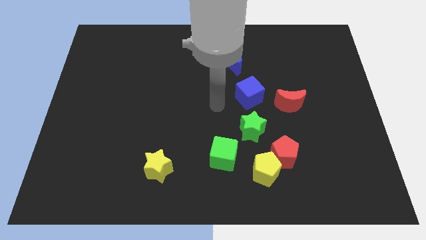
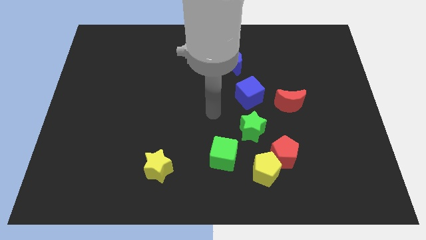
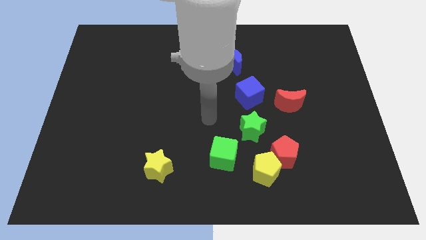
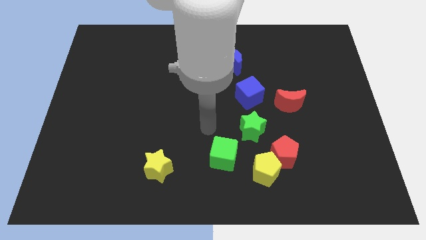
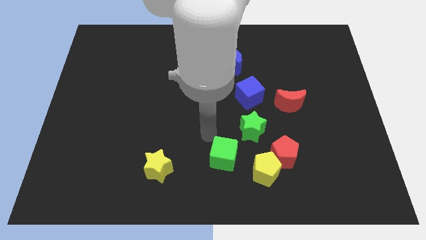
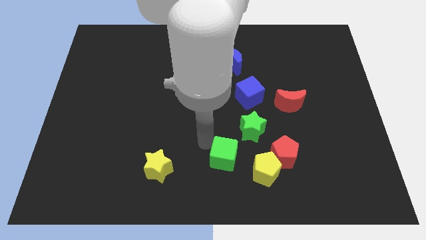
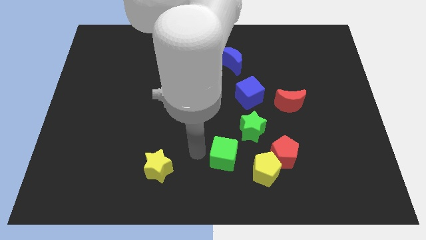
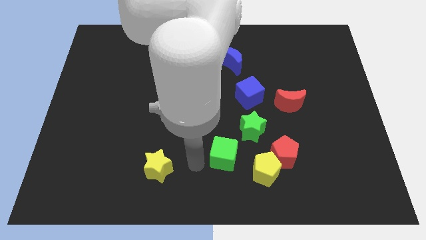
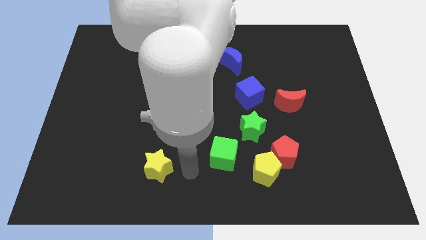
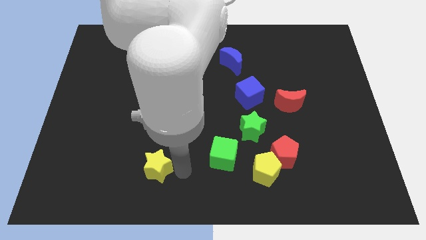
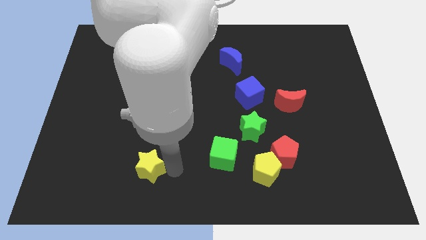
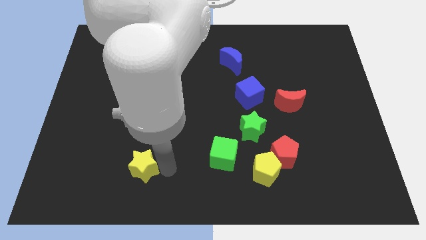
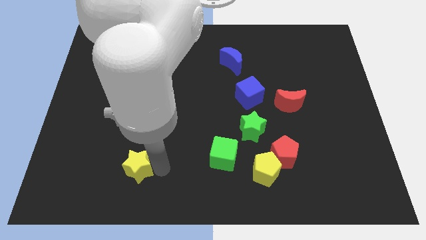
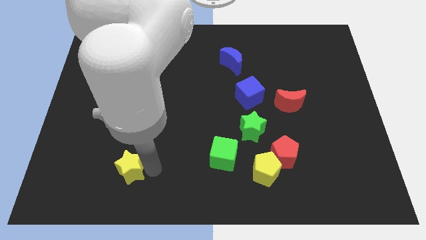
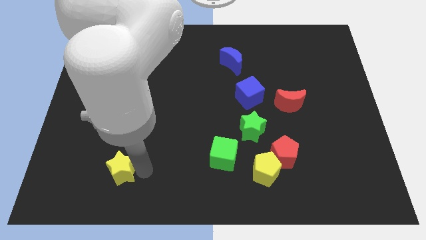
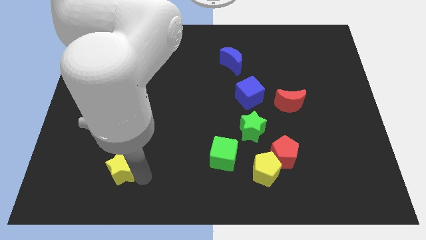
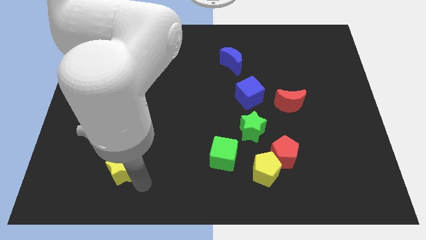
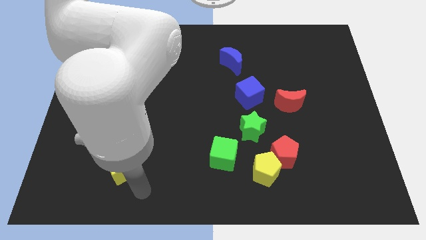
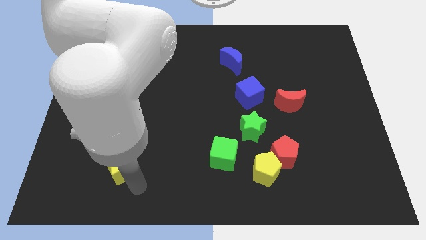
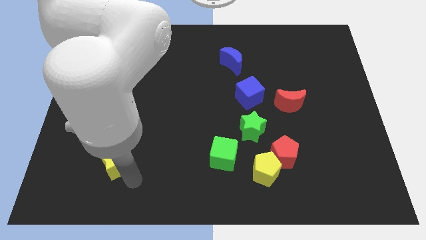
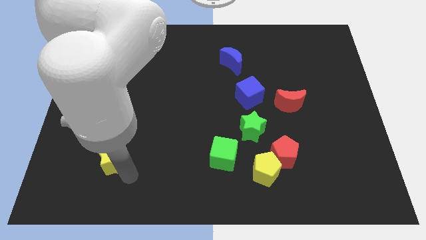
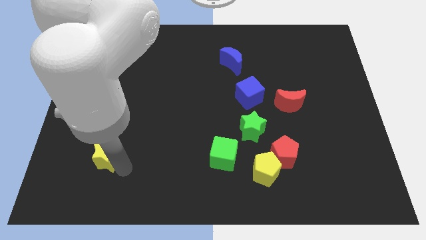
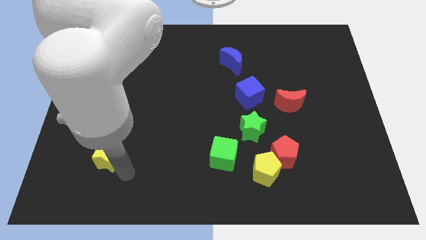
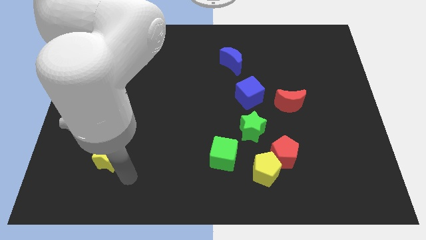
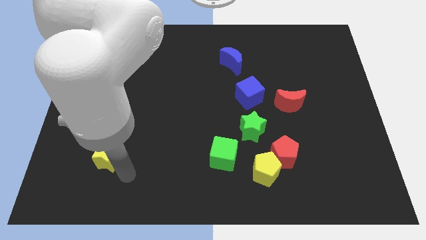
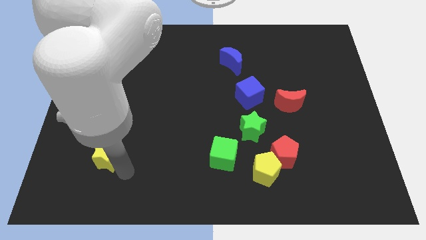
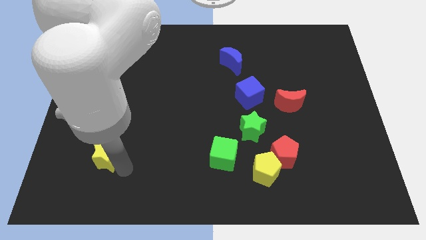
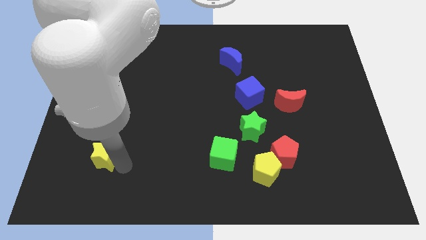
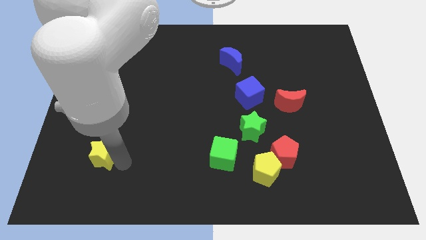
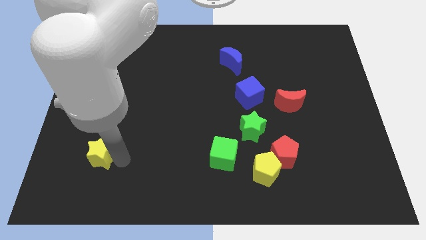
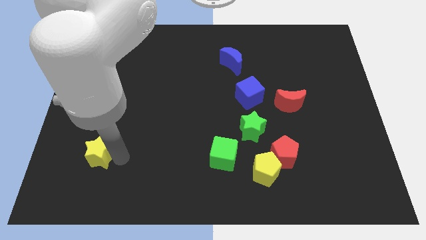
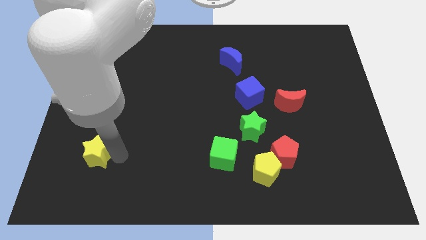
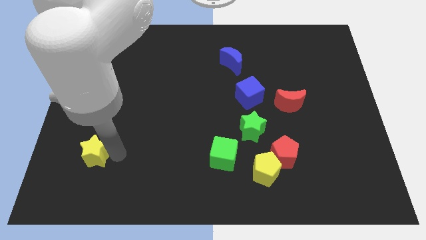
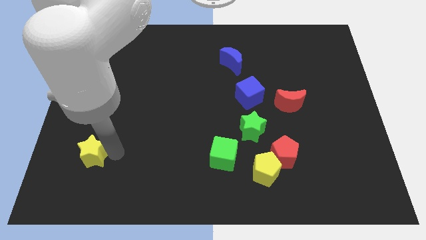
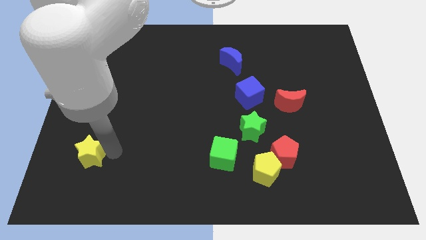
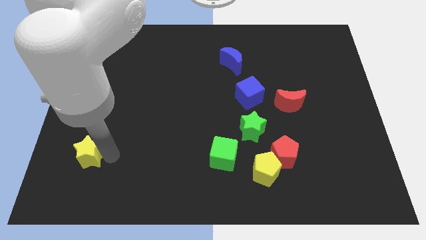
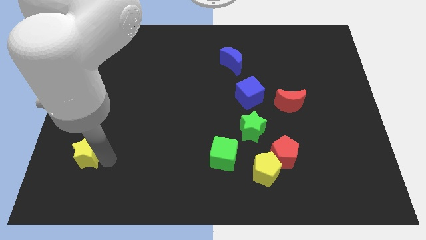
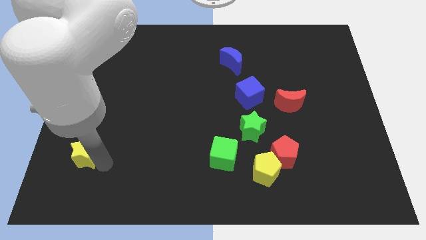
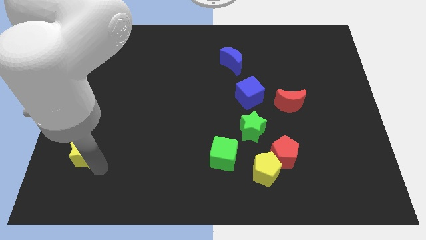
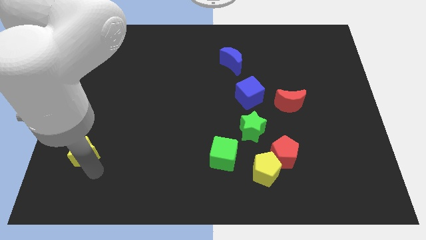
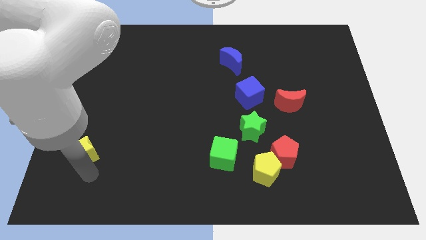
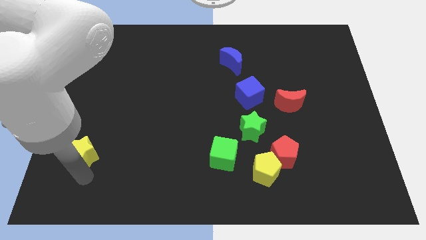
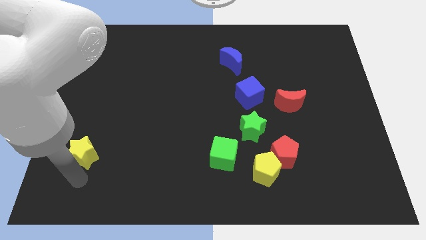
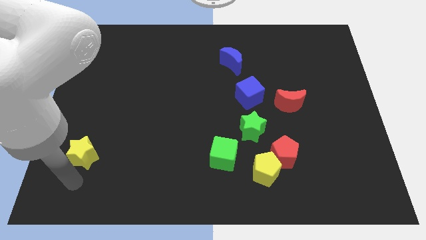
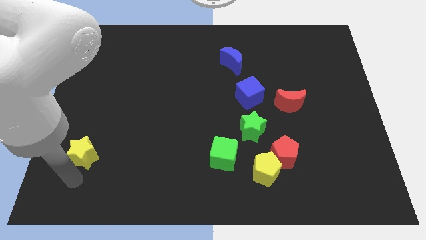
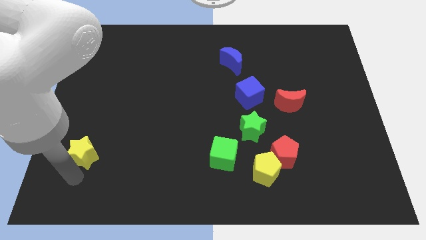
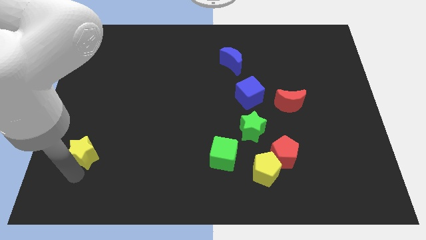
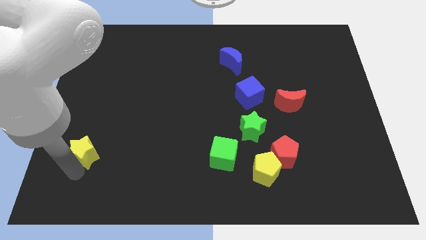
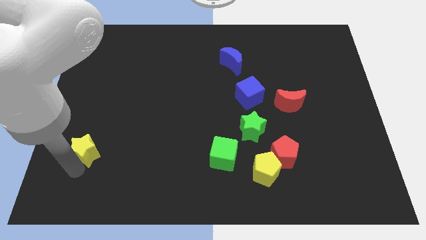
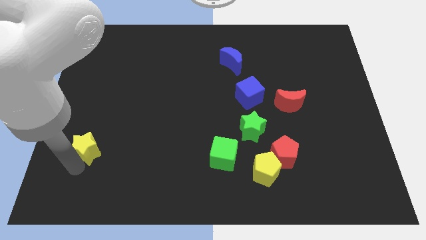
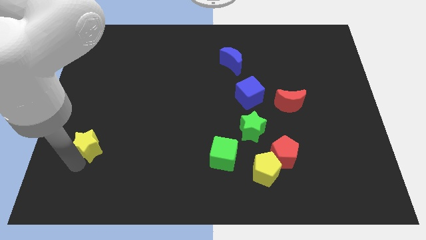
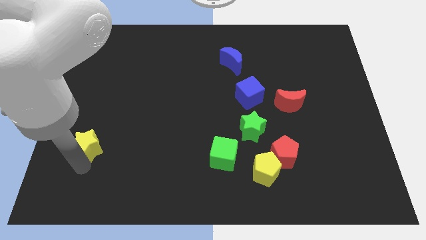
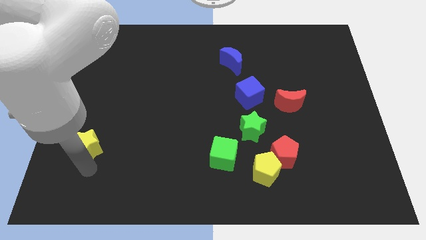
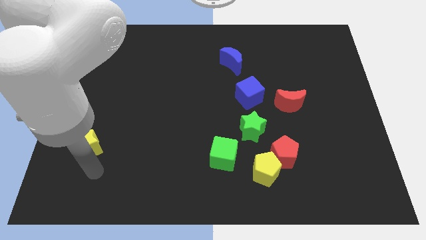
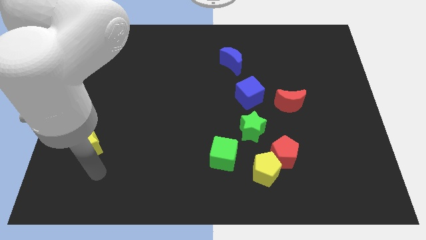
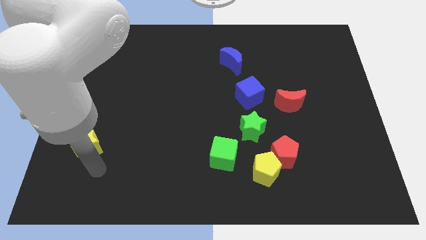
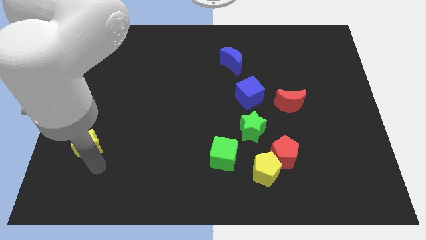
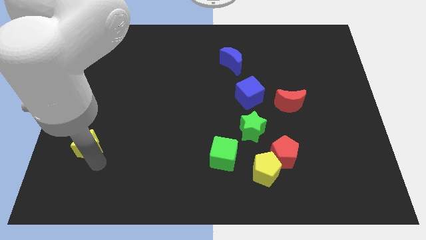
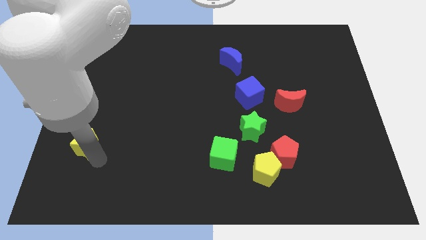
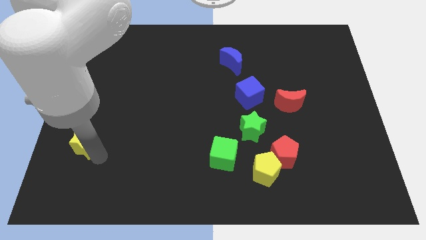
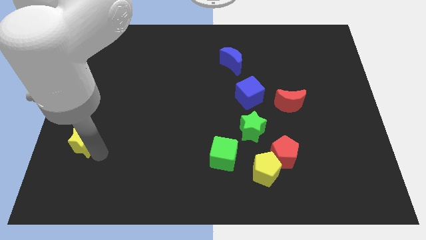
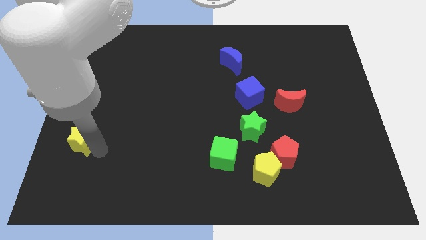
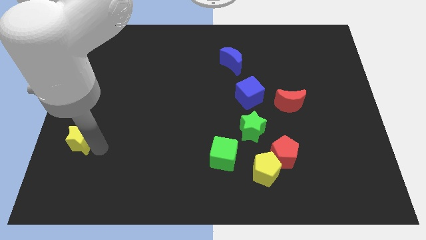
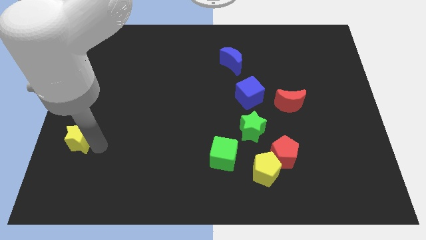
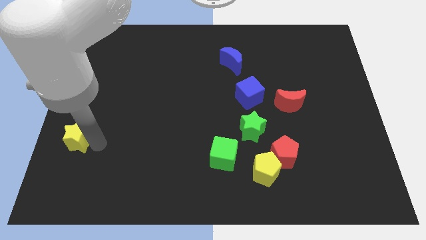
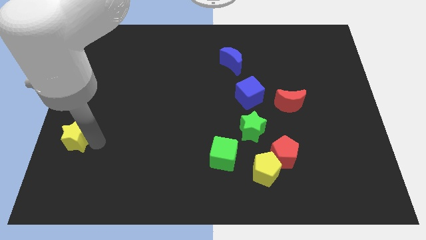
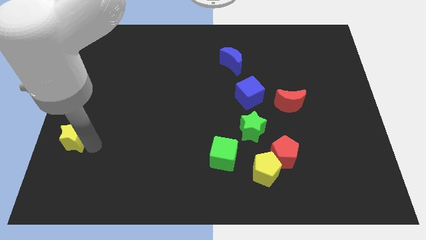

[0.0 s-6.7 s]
slide the yellow star to the left side of the board

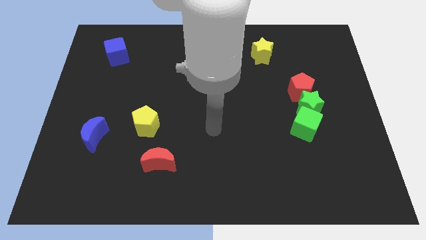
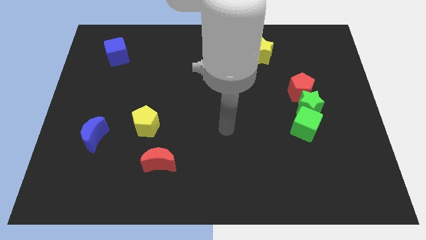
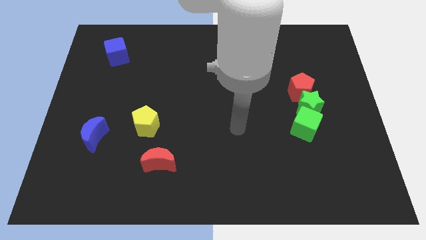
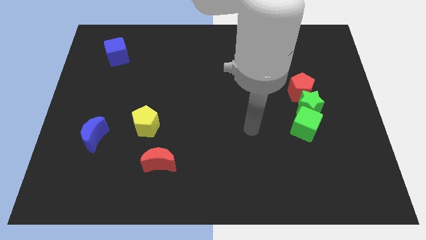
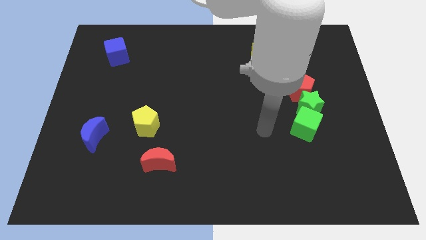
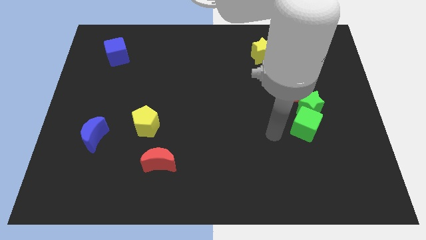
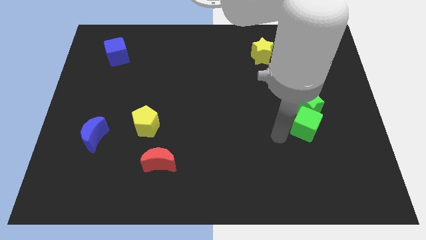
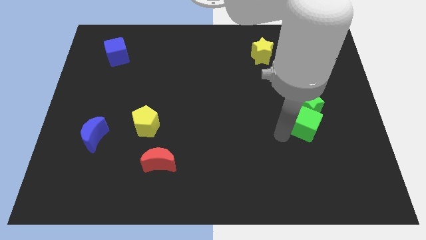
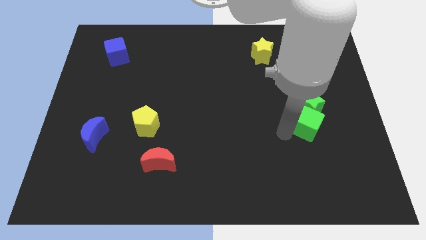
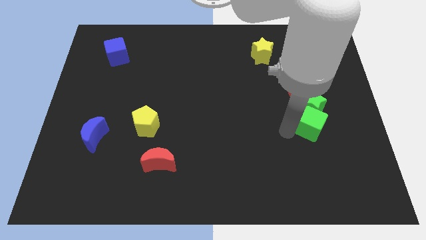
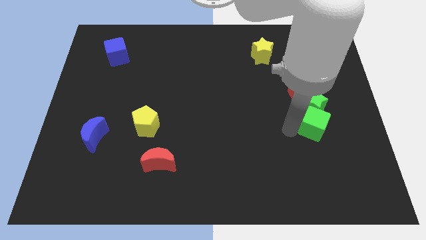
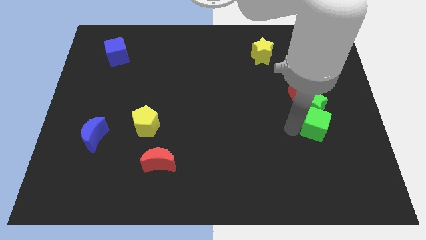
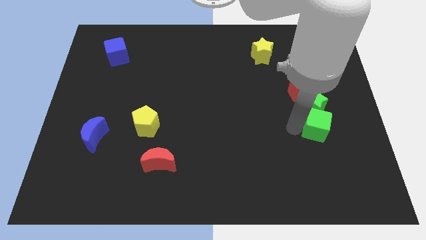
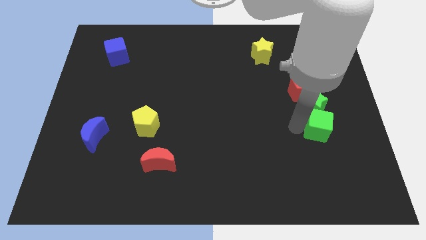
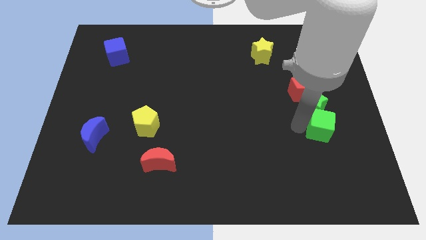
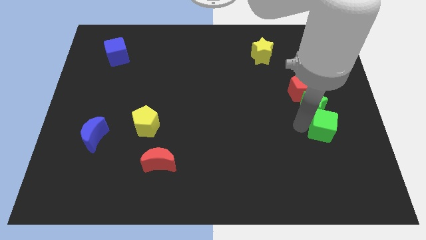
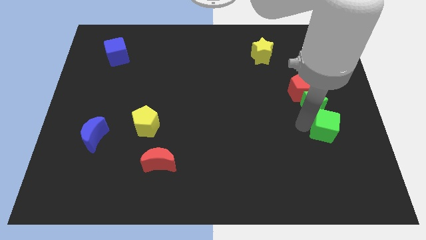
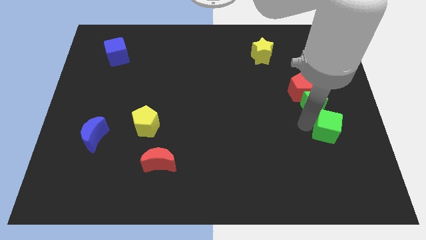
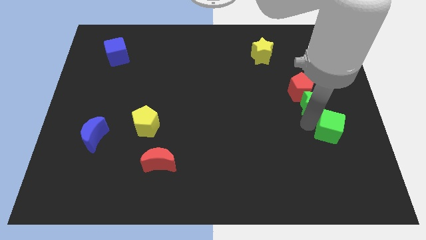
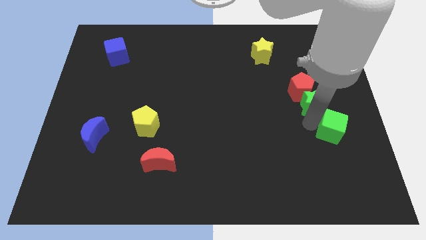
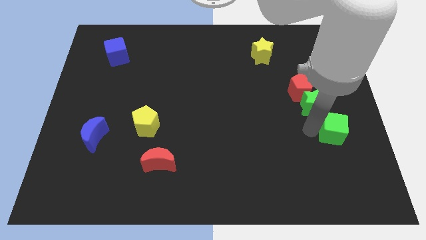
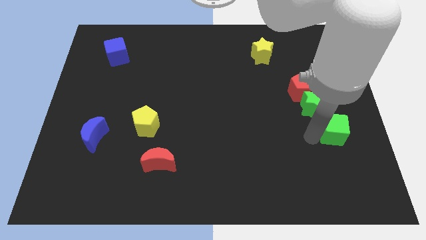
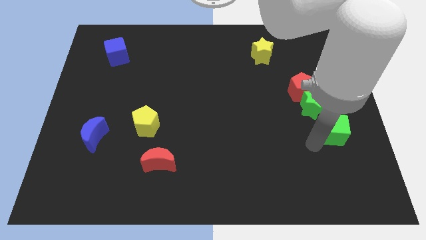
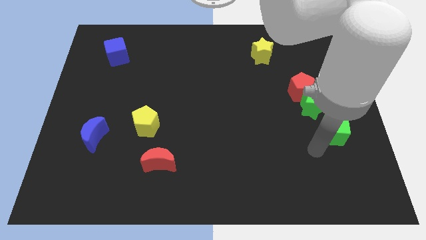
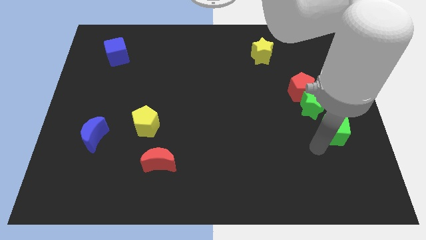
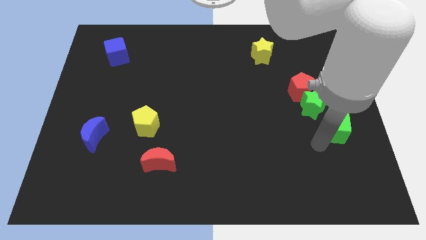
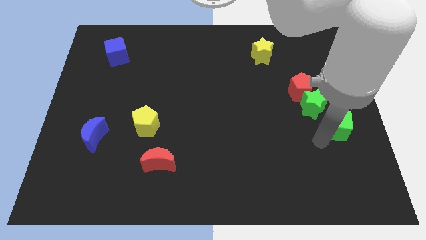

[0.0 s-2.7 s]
slide the green cube to the center right
